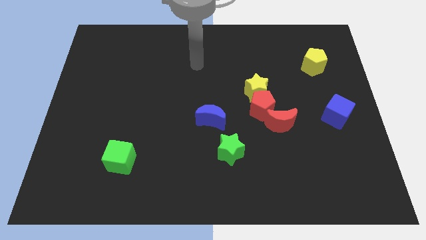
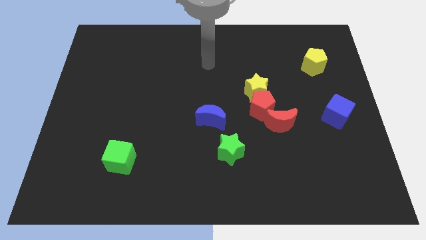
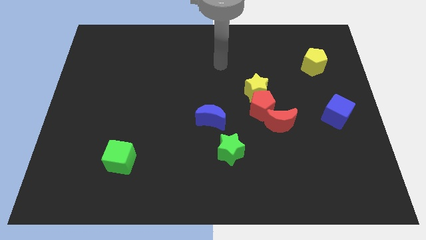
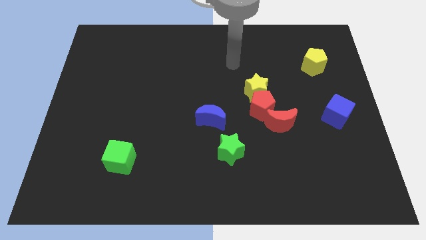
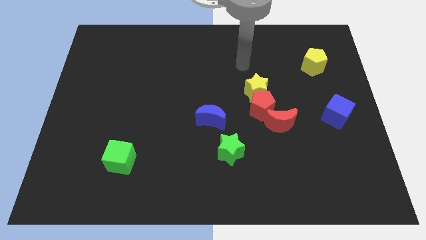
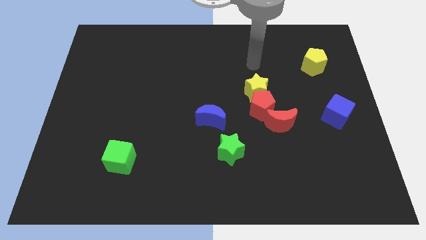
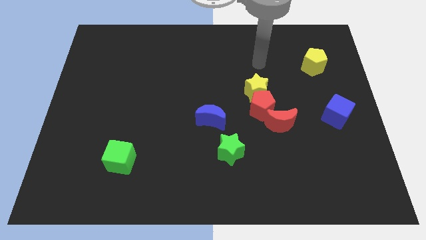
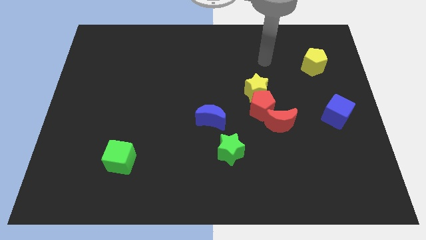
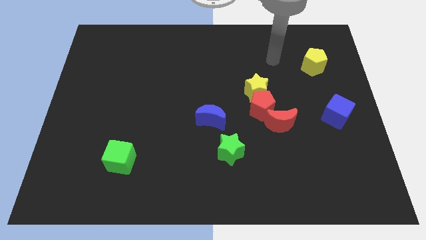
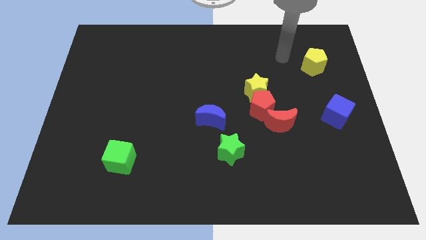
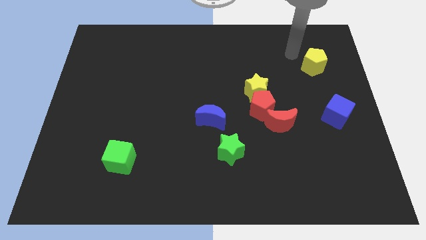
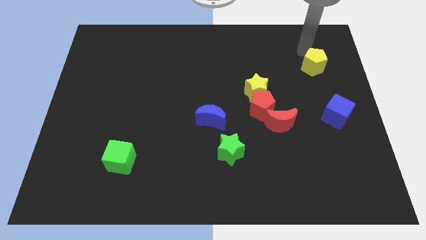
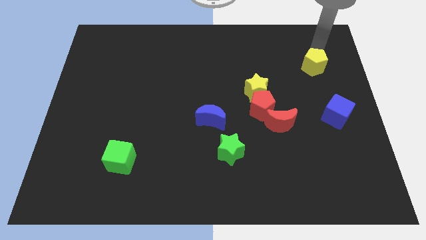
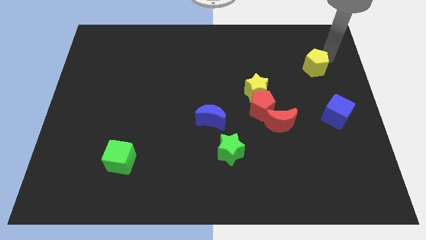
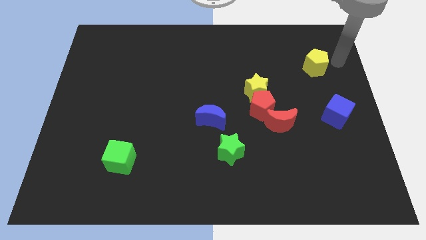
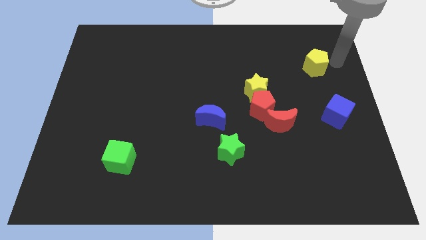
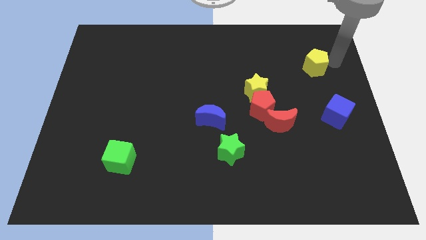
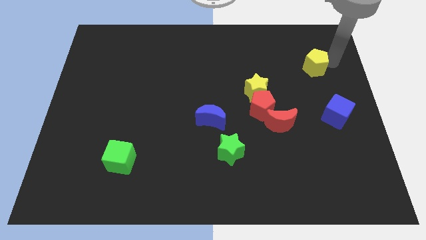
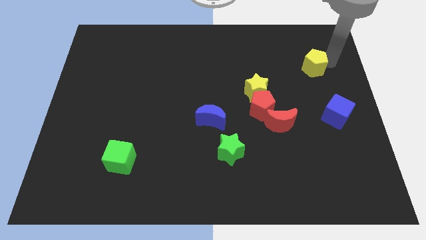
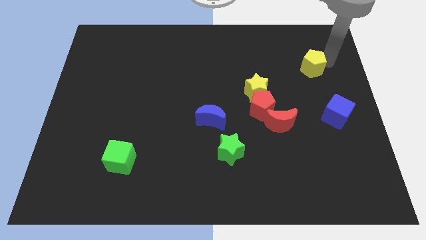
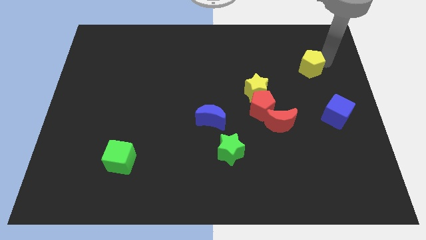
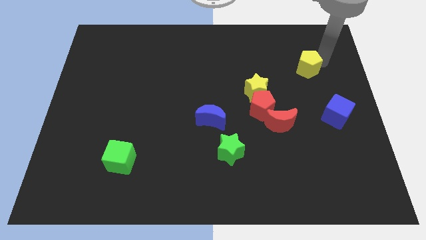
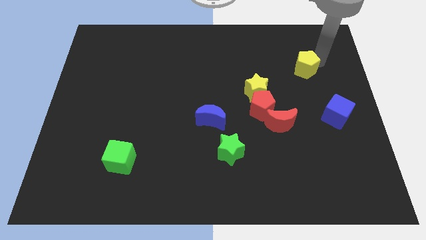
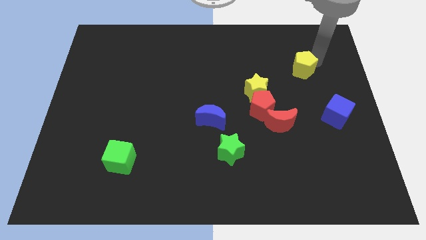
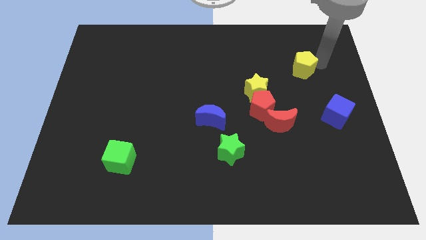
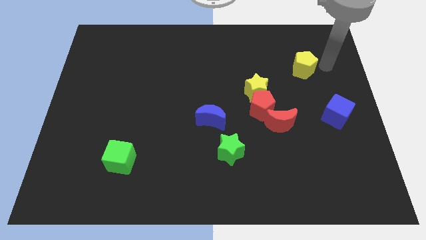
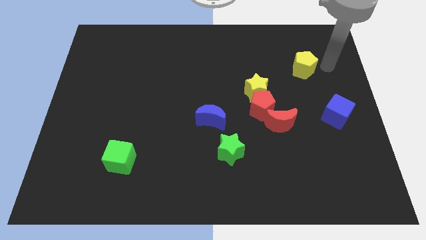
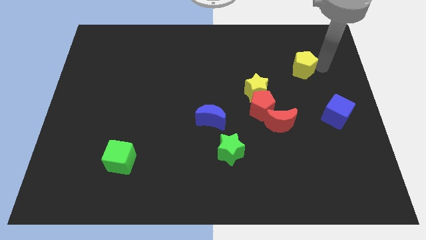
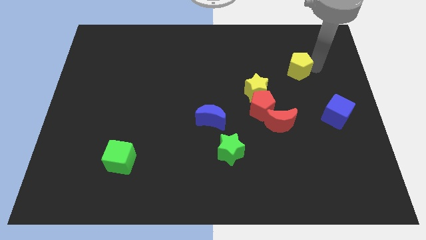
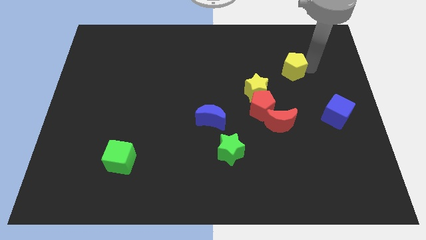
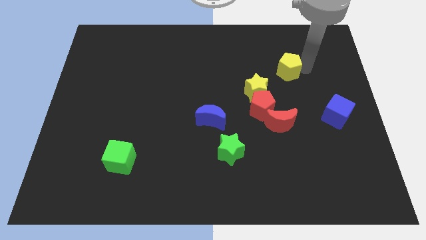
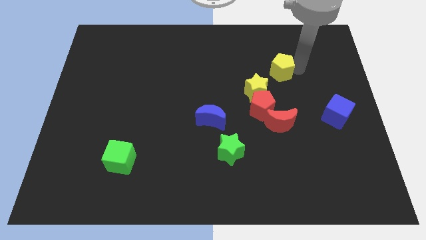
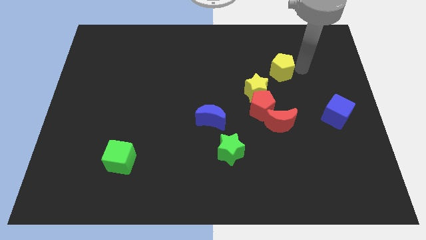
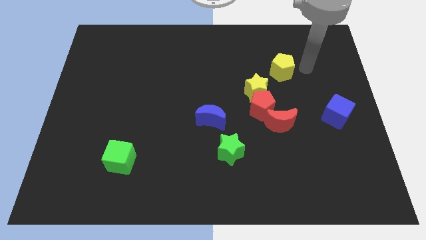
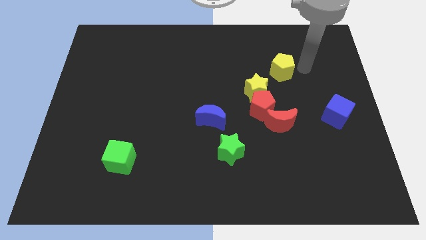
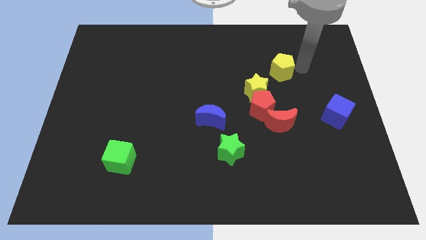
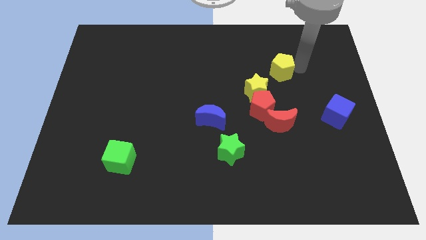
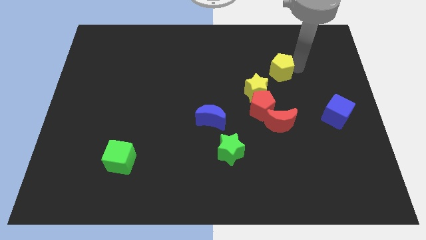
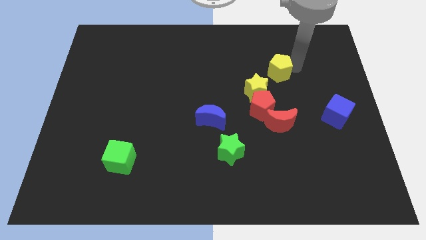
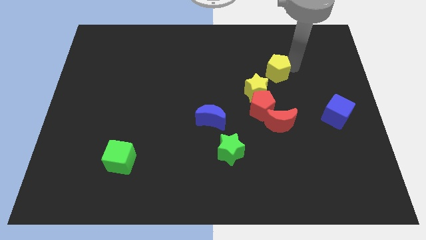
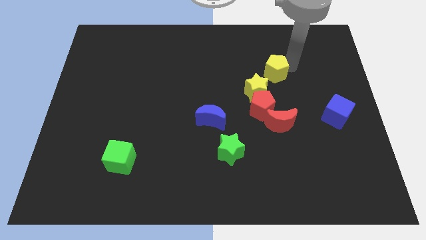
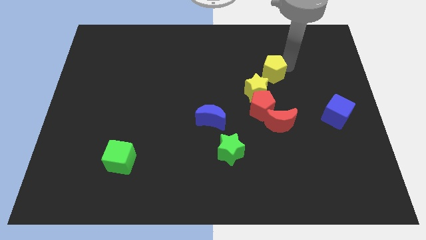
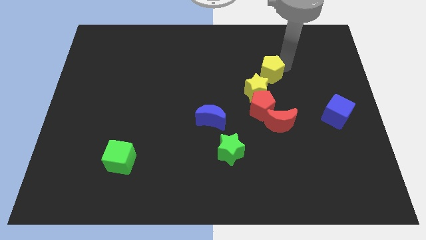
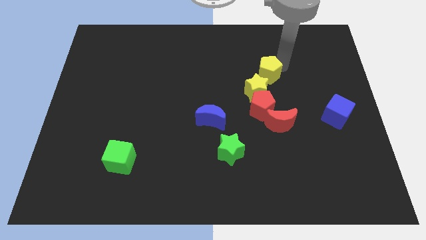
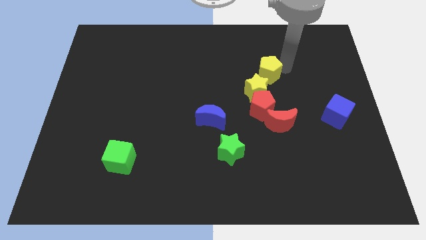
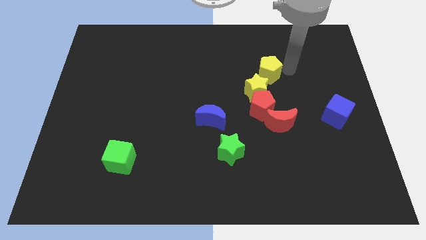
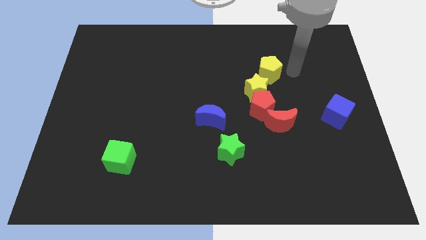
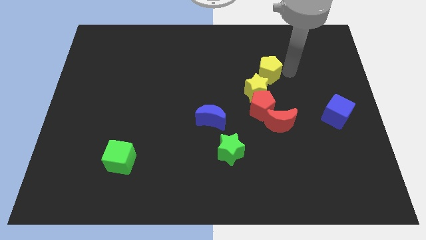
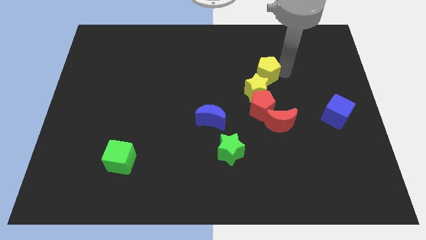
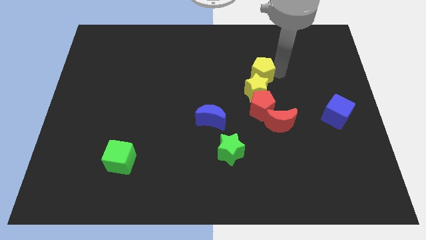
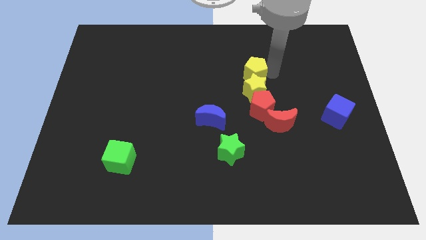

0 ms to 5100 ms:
slide the yellow pentagon diagonally up and to the left of the yellow star

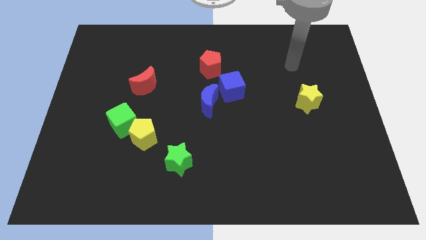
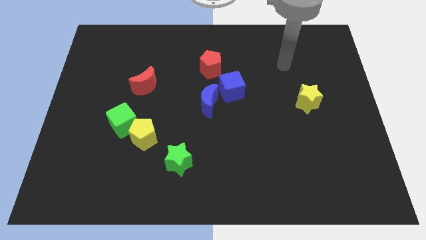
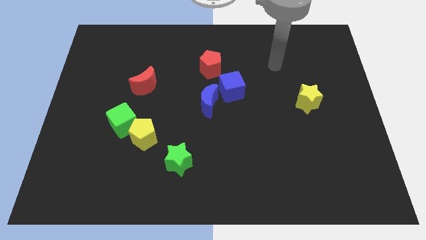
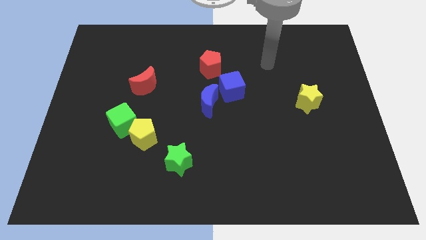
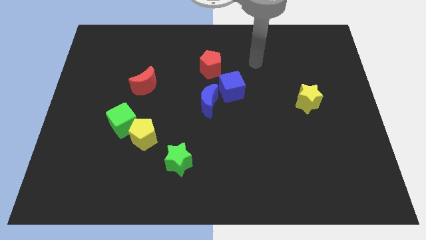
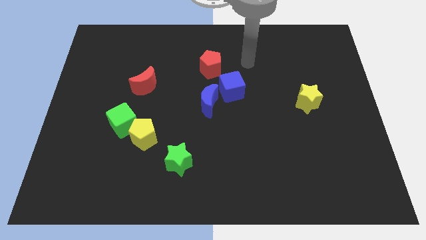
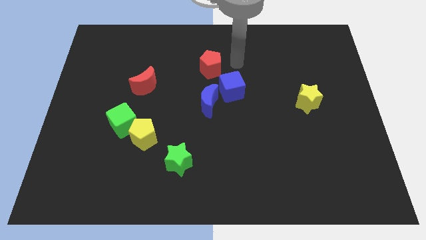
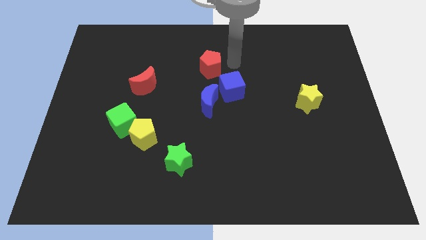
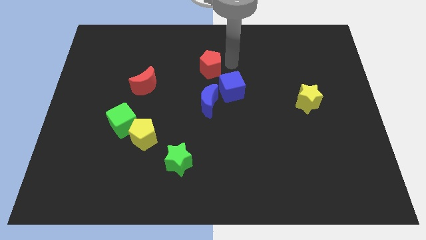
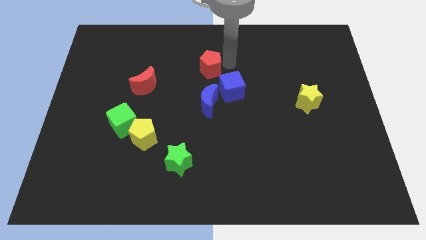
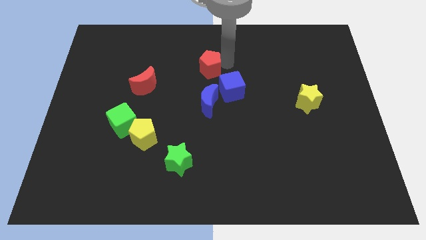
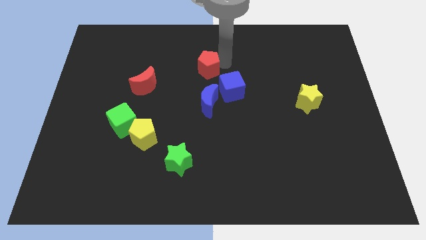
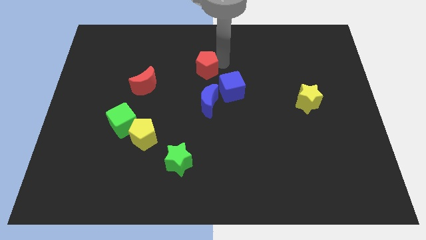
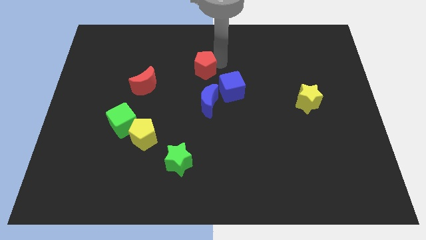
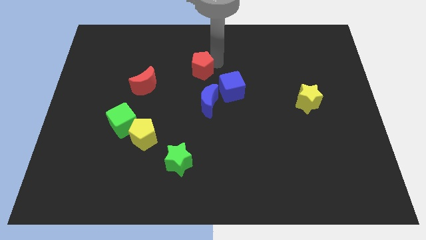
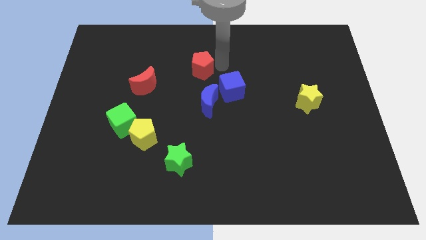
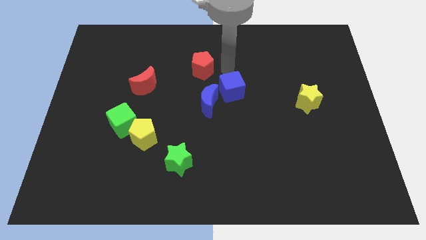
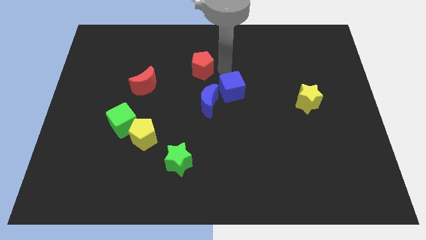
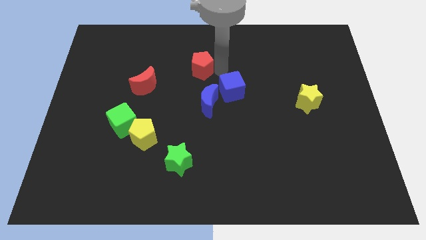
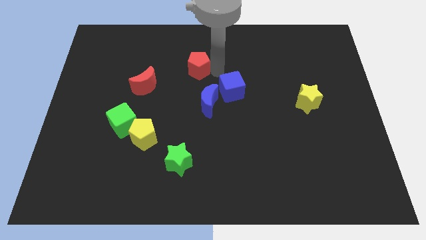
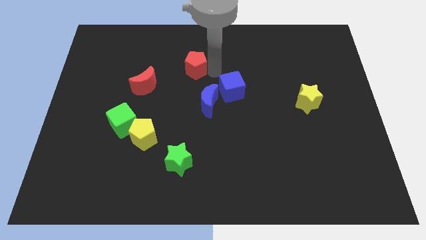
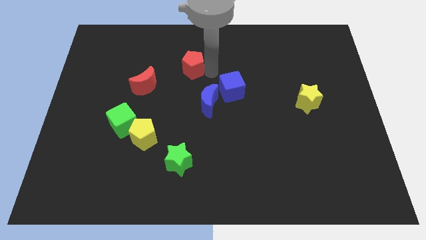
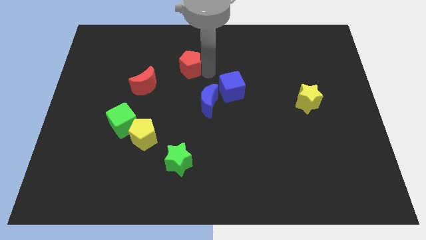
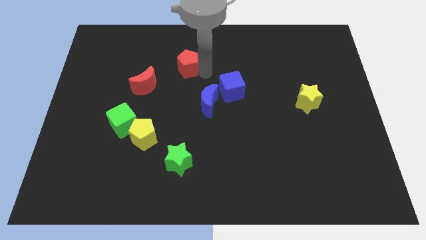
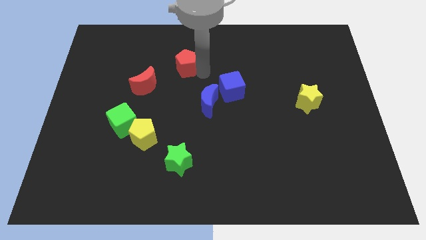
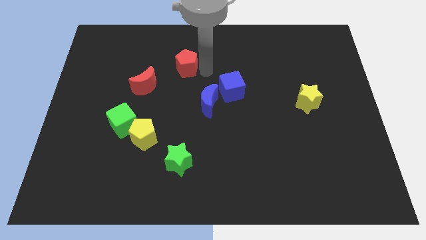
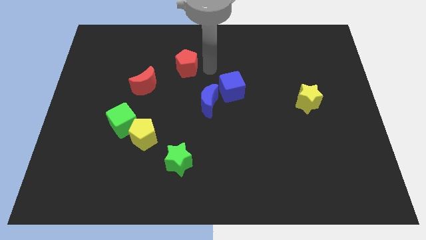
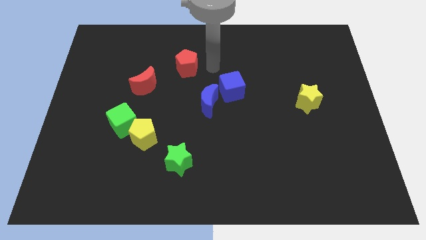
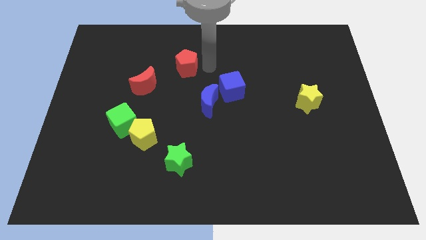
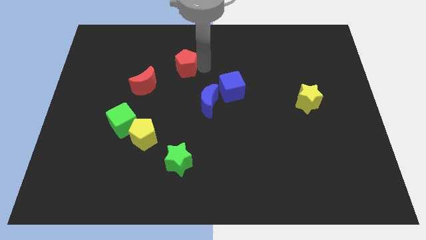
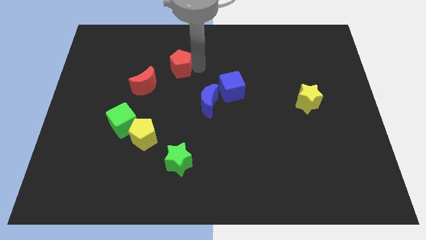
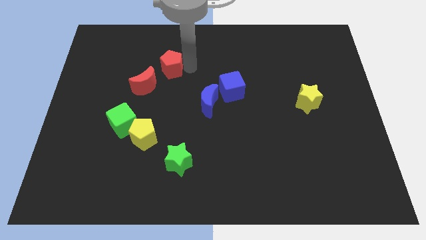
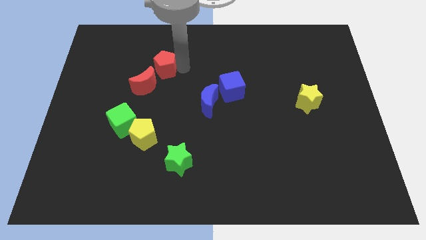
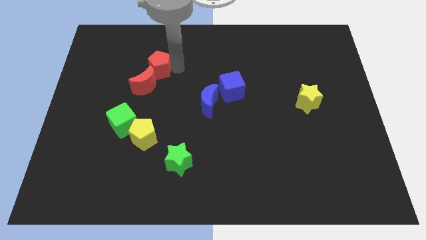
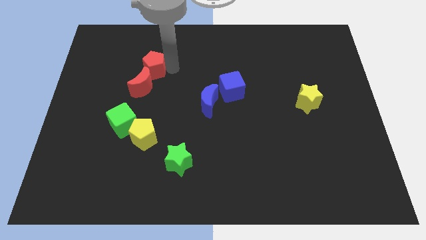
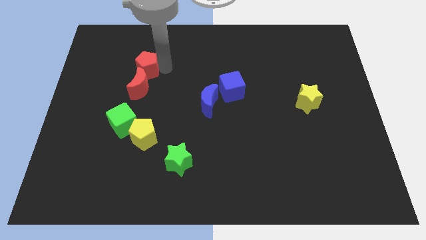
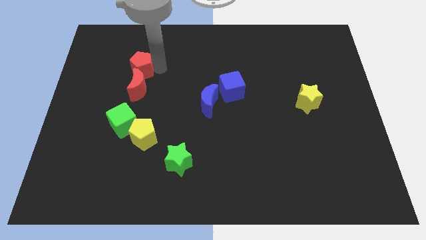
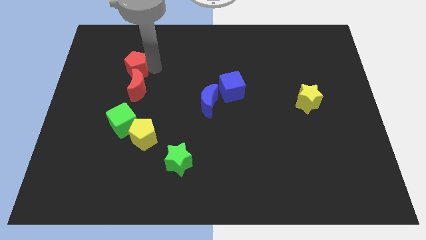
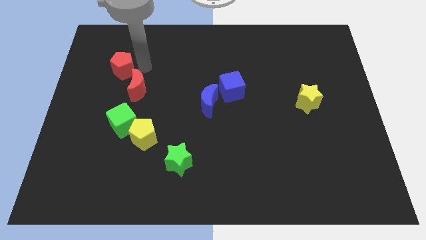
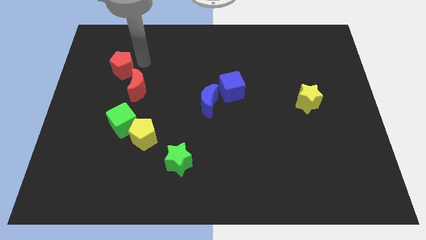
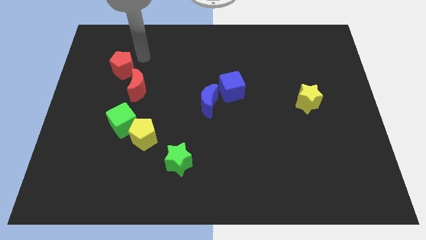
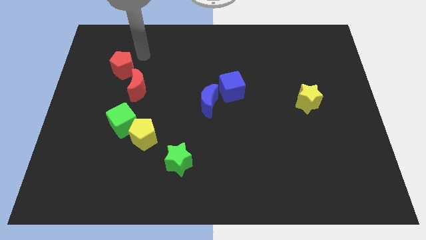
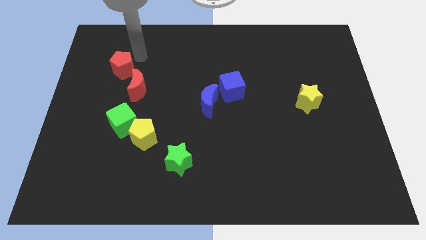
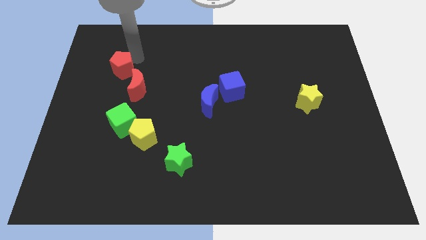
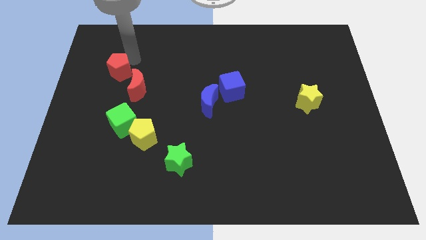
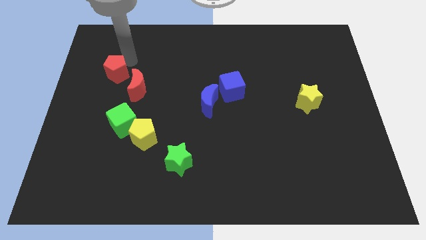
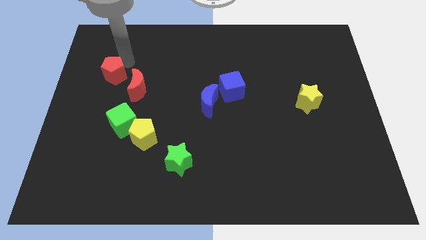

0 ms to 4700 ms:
move the red pentagon left of the red moon
